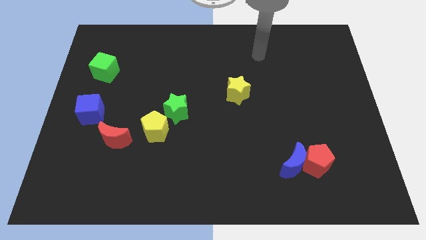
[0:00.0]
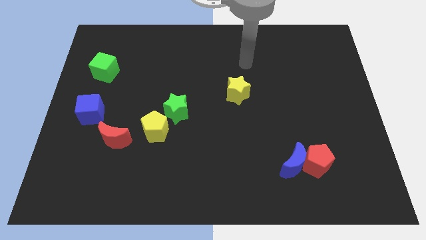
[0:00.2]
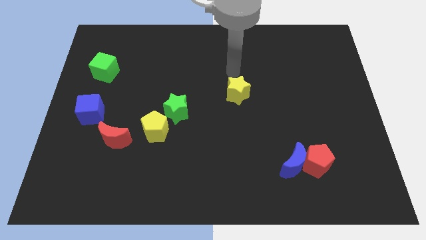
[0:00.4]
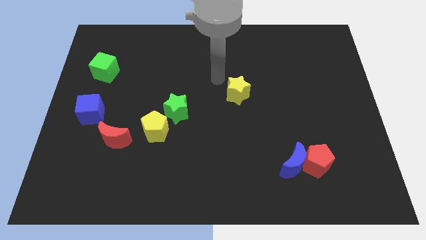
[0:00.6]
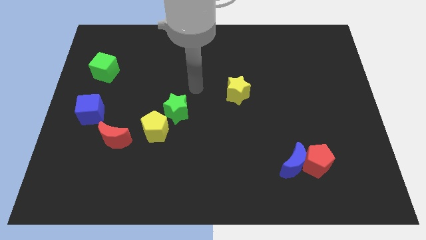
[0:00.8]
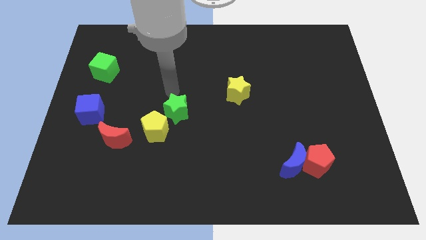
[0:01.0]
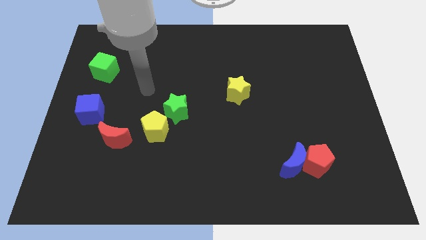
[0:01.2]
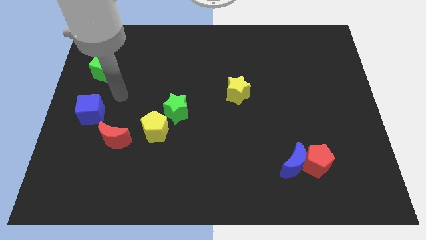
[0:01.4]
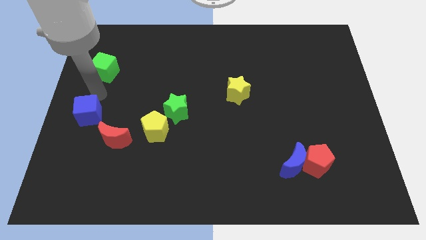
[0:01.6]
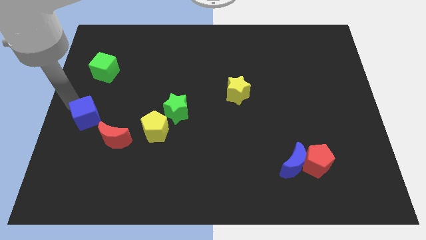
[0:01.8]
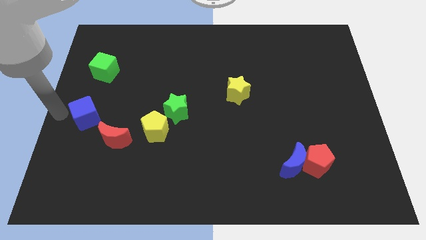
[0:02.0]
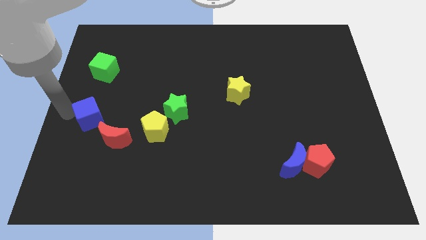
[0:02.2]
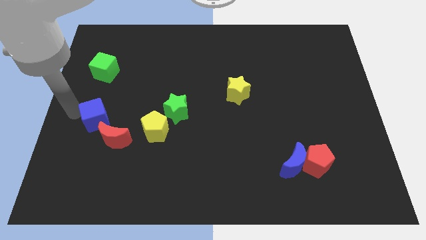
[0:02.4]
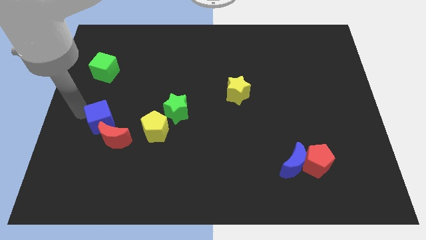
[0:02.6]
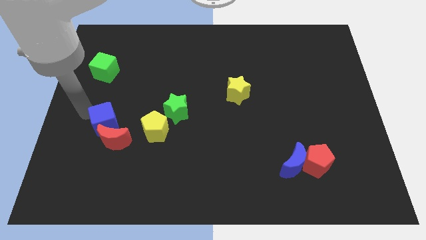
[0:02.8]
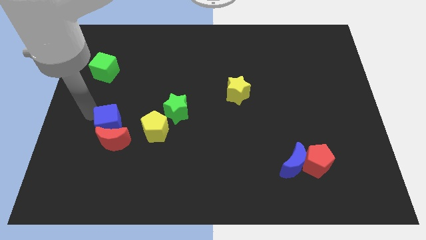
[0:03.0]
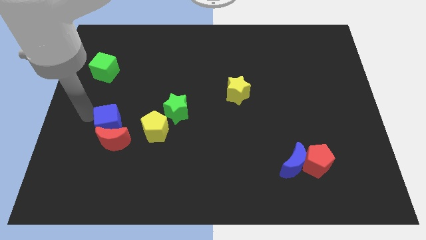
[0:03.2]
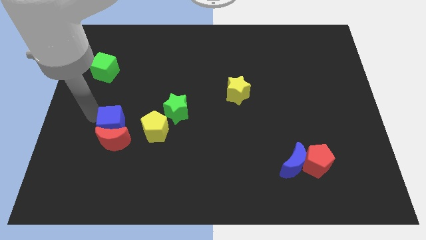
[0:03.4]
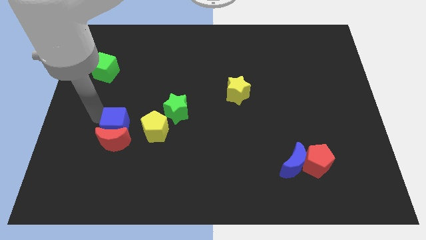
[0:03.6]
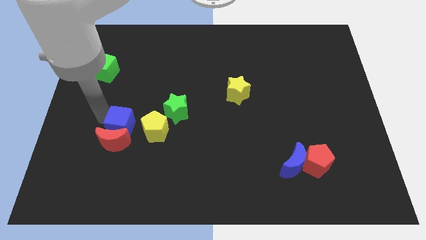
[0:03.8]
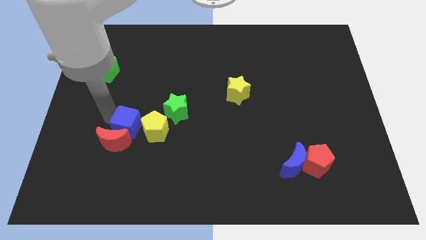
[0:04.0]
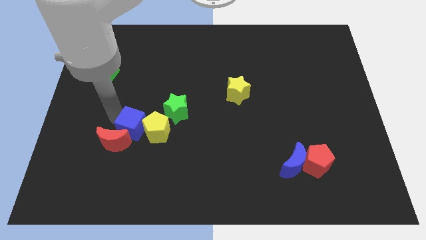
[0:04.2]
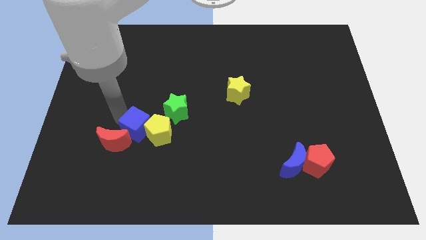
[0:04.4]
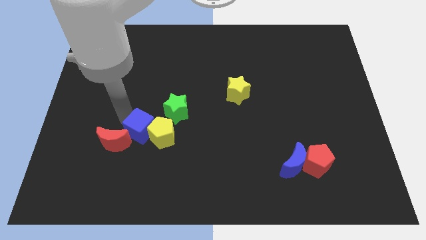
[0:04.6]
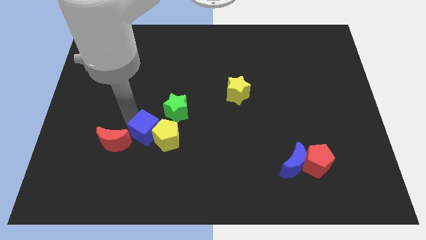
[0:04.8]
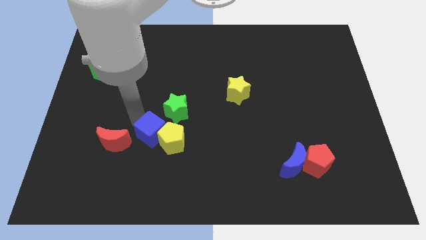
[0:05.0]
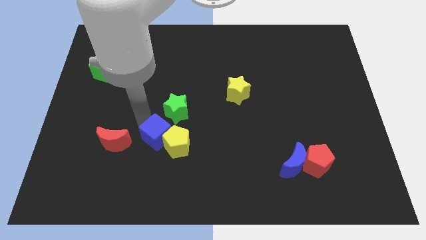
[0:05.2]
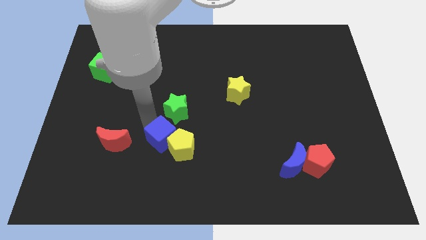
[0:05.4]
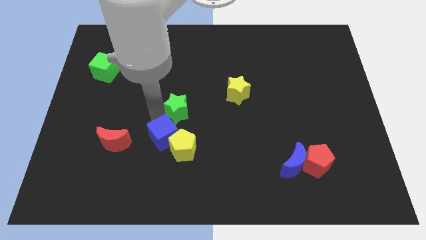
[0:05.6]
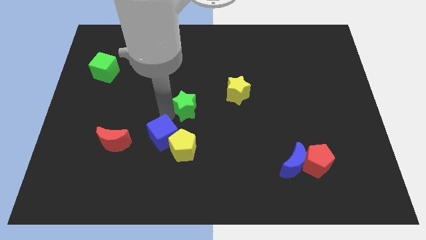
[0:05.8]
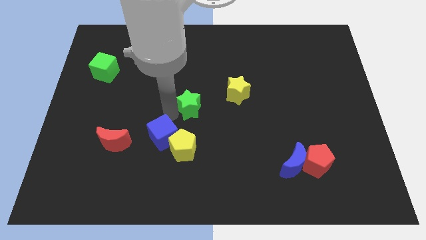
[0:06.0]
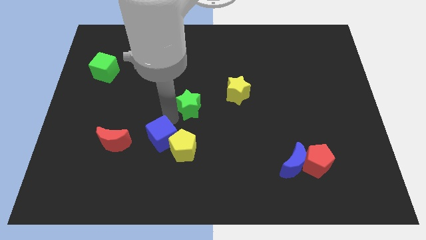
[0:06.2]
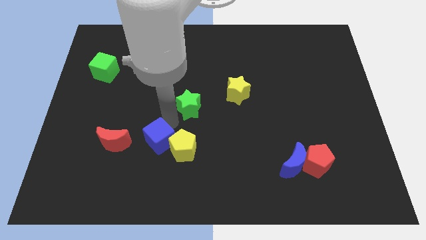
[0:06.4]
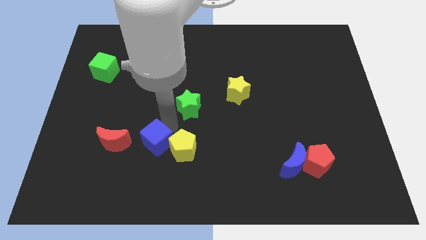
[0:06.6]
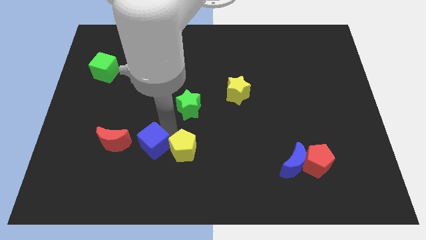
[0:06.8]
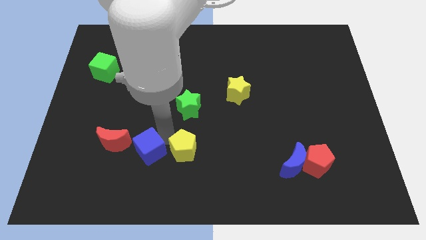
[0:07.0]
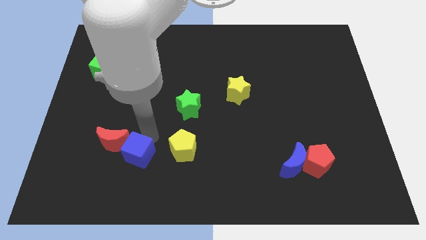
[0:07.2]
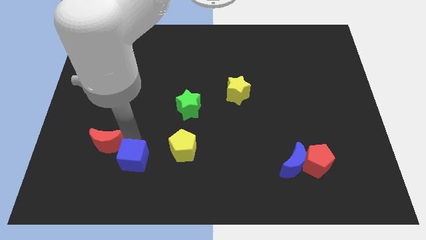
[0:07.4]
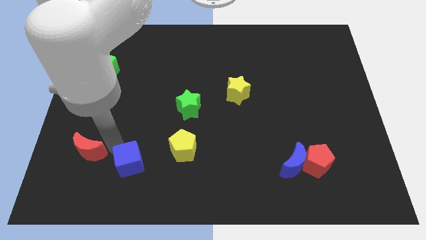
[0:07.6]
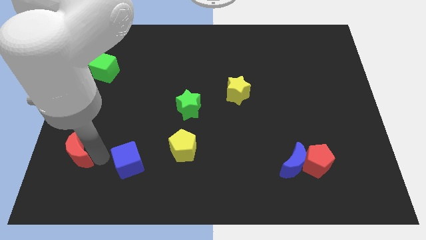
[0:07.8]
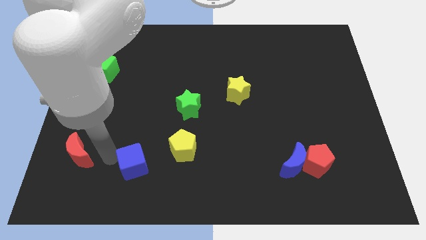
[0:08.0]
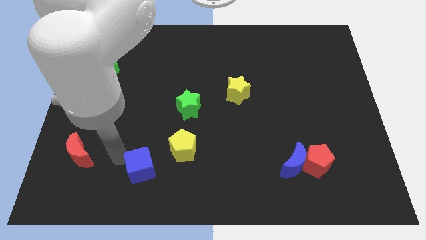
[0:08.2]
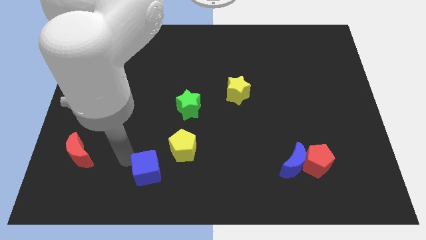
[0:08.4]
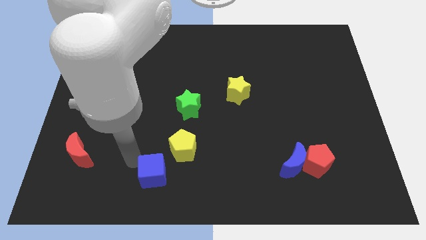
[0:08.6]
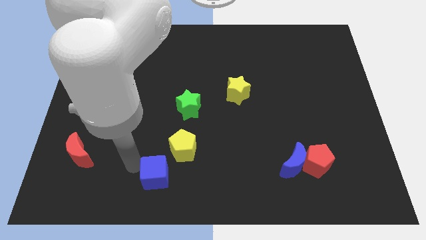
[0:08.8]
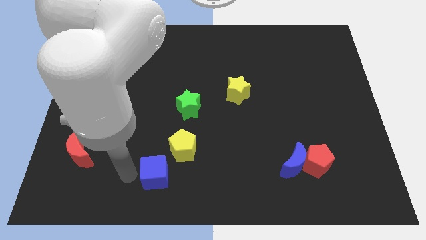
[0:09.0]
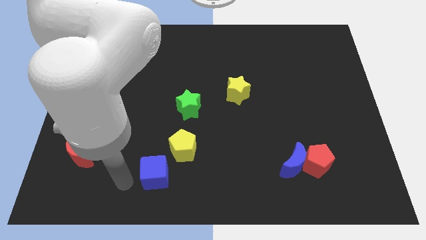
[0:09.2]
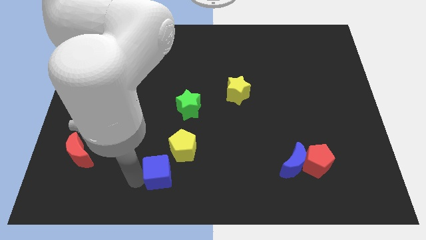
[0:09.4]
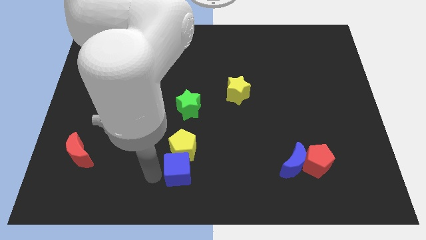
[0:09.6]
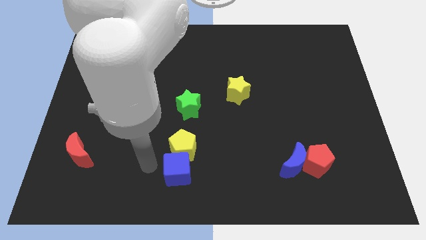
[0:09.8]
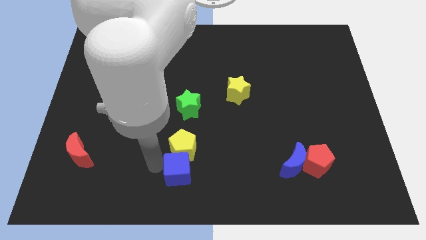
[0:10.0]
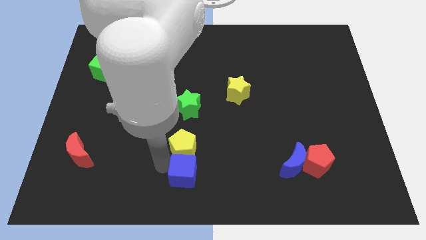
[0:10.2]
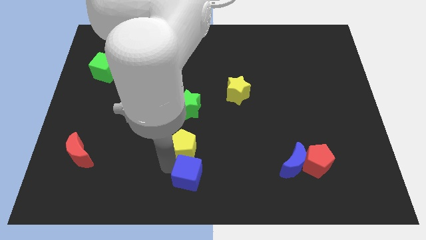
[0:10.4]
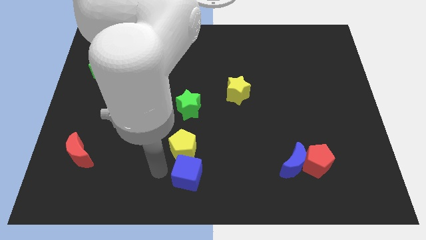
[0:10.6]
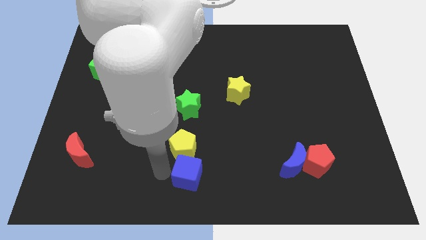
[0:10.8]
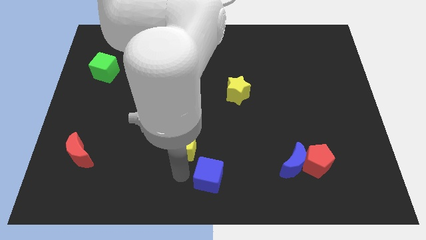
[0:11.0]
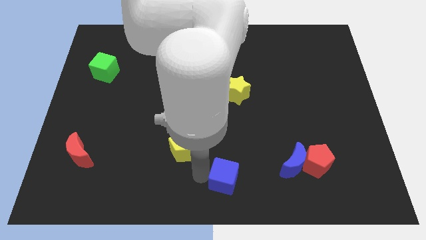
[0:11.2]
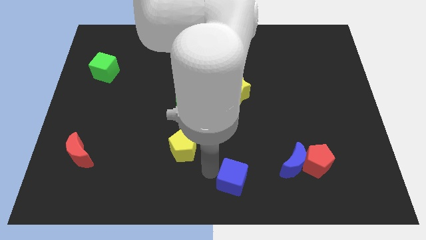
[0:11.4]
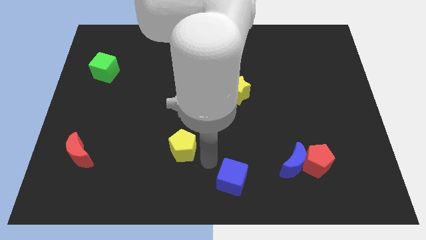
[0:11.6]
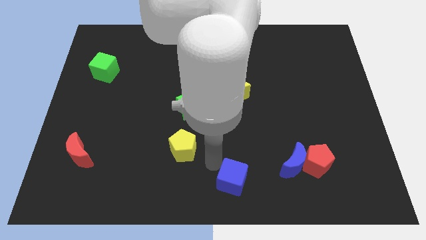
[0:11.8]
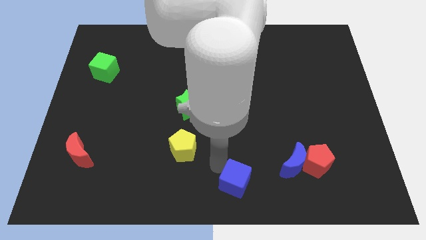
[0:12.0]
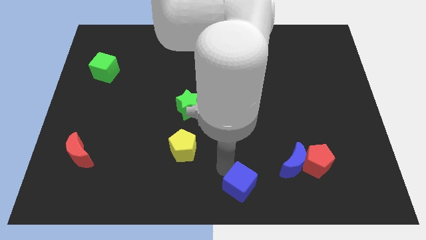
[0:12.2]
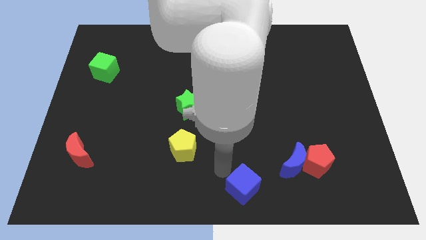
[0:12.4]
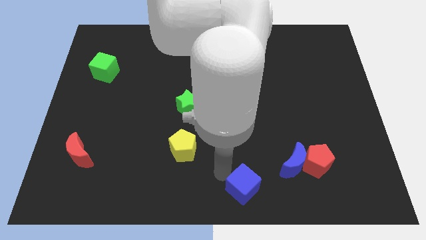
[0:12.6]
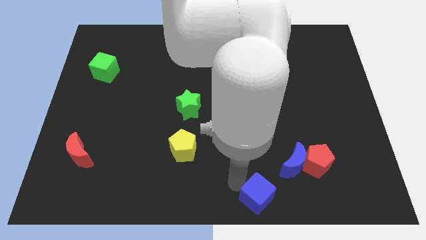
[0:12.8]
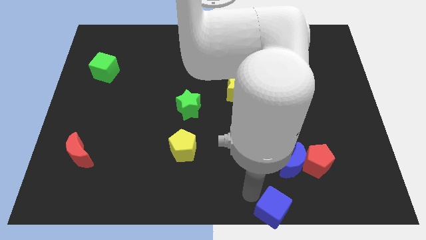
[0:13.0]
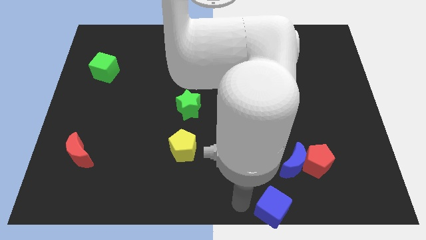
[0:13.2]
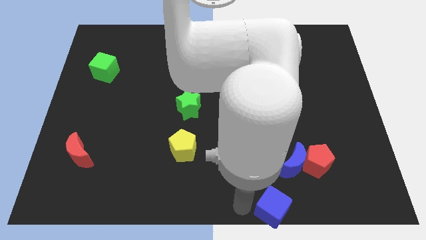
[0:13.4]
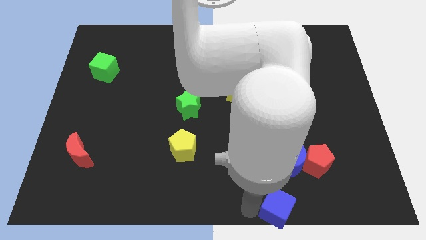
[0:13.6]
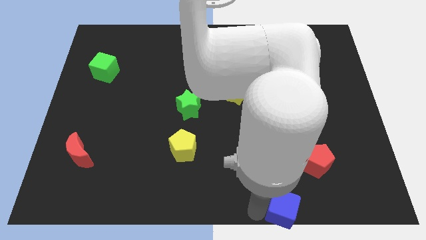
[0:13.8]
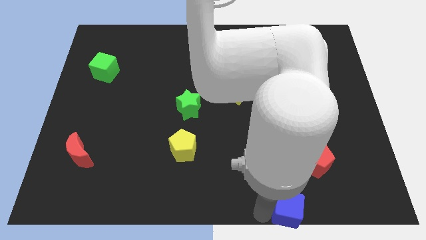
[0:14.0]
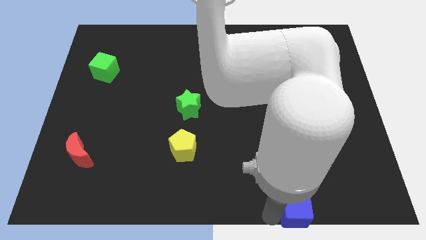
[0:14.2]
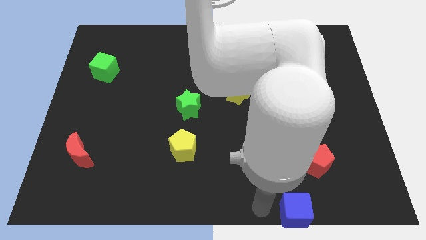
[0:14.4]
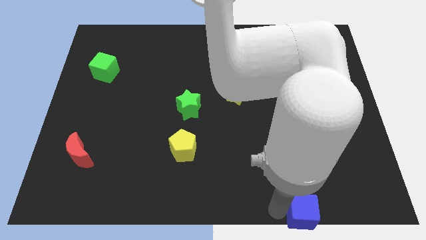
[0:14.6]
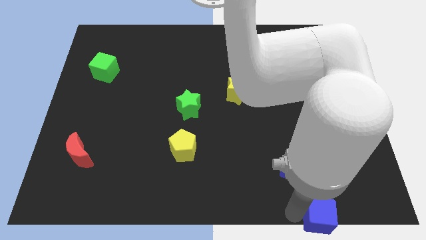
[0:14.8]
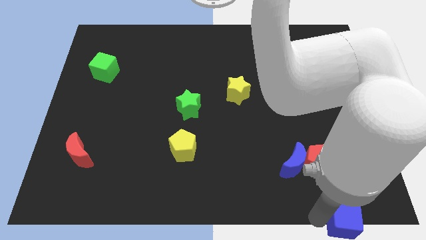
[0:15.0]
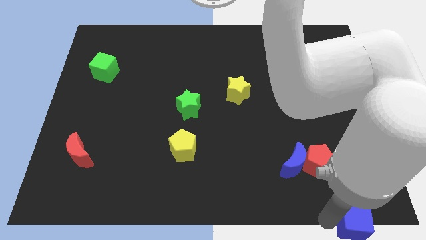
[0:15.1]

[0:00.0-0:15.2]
move the blue cube to the bottom right of the board
